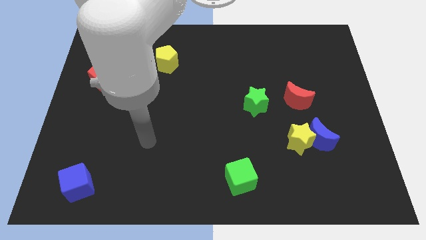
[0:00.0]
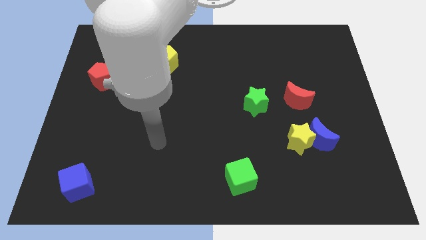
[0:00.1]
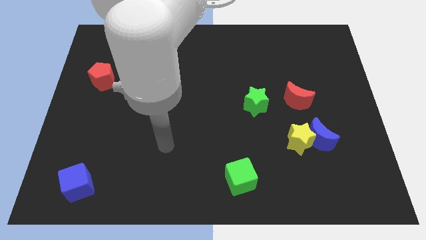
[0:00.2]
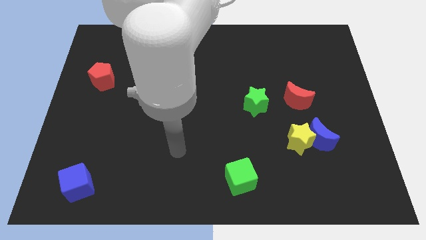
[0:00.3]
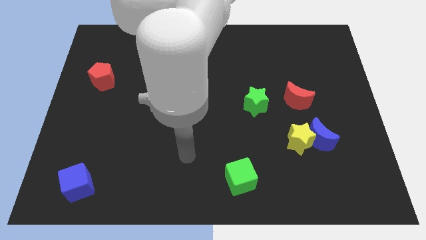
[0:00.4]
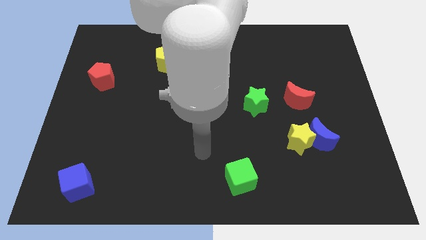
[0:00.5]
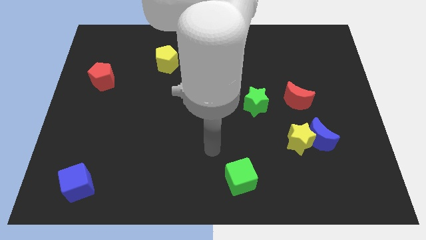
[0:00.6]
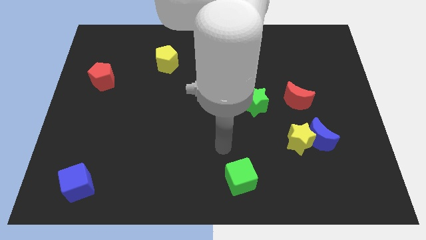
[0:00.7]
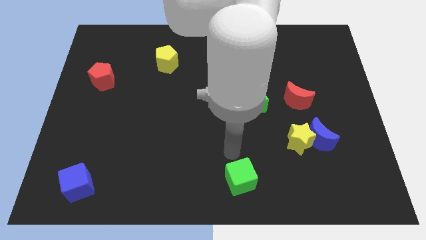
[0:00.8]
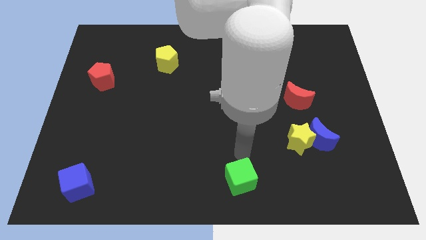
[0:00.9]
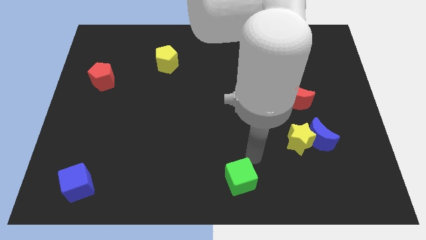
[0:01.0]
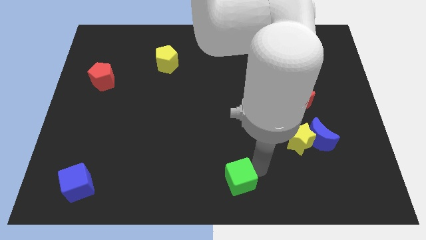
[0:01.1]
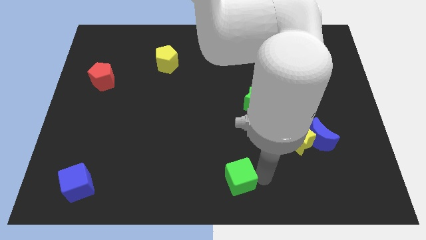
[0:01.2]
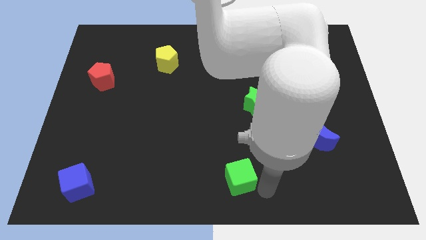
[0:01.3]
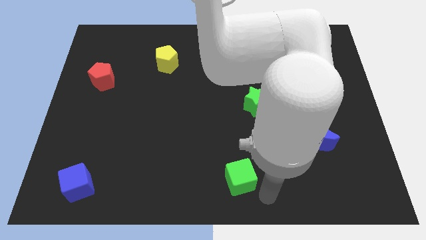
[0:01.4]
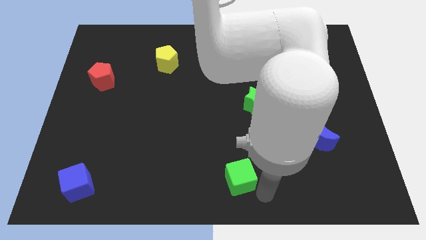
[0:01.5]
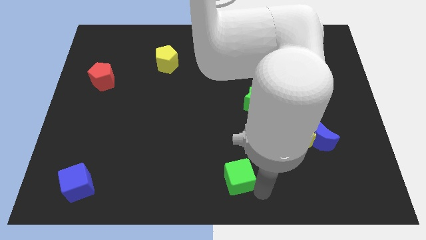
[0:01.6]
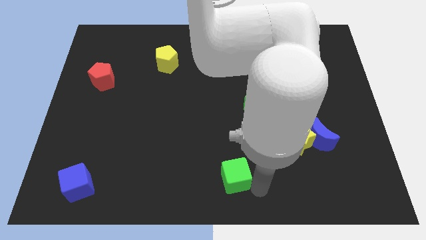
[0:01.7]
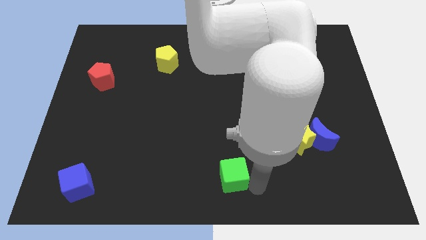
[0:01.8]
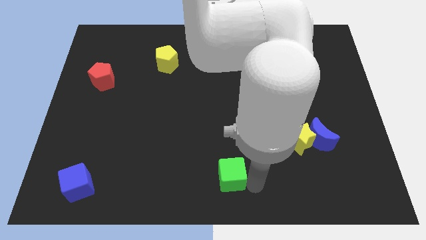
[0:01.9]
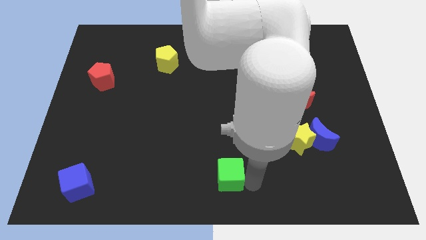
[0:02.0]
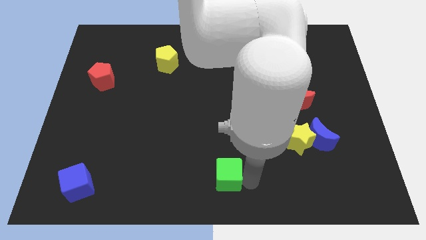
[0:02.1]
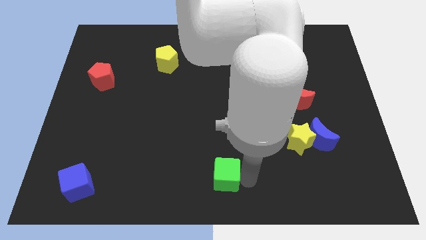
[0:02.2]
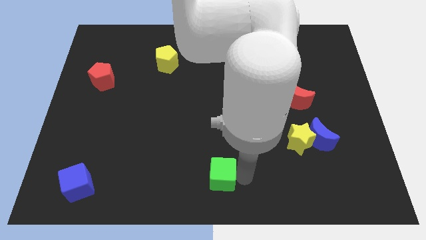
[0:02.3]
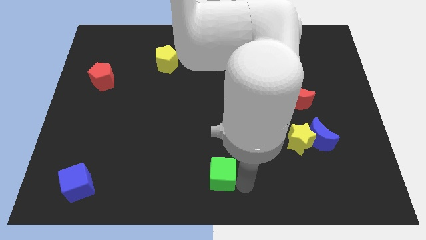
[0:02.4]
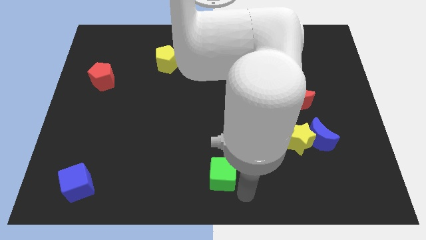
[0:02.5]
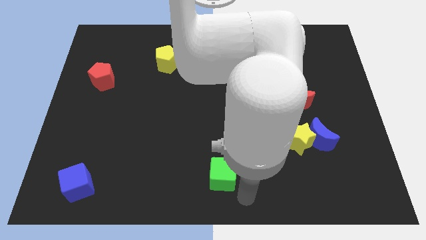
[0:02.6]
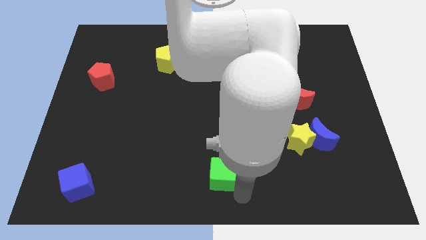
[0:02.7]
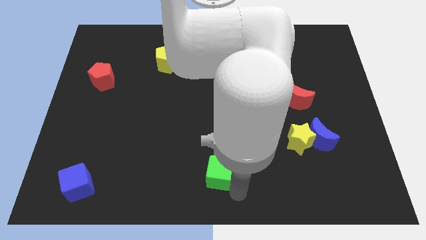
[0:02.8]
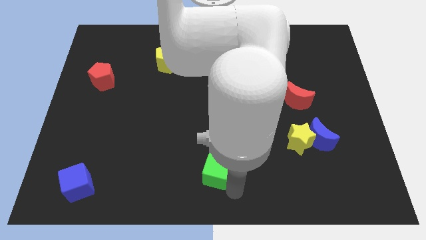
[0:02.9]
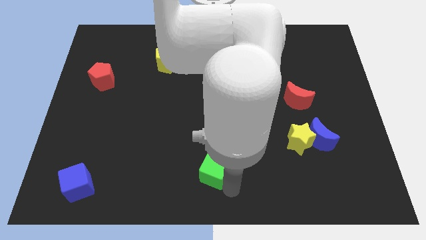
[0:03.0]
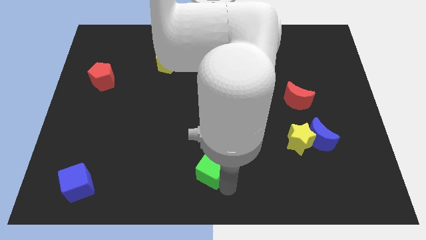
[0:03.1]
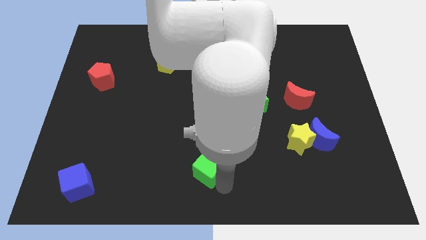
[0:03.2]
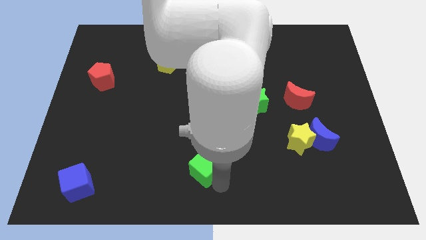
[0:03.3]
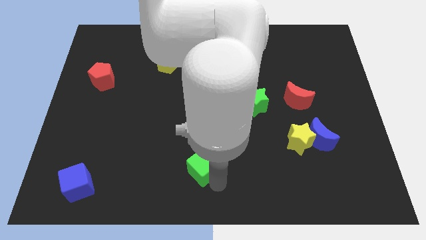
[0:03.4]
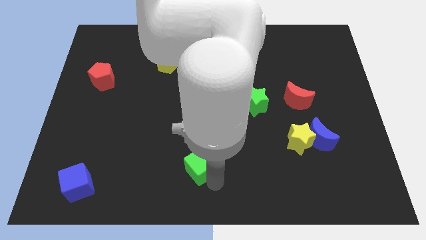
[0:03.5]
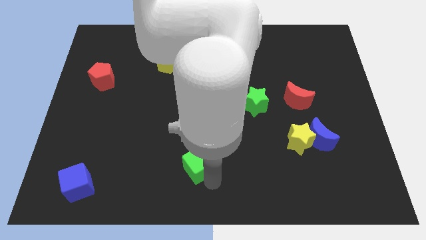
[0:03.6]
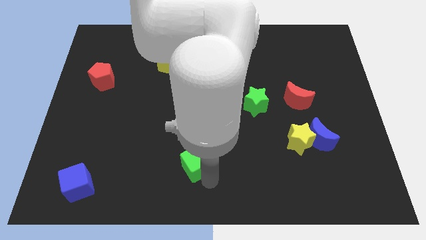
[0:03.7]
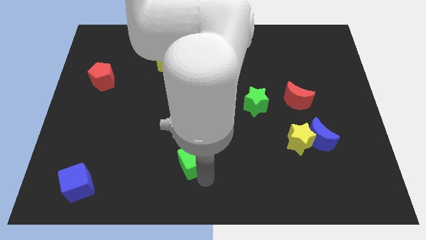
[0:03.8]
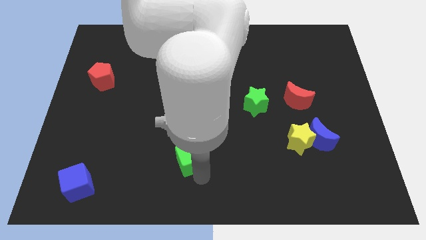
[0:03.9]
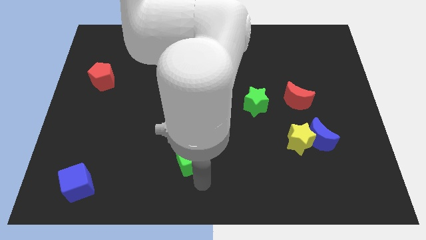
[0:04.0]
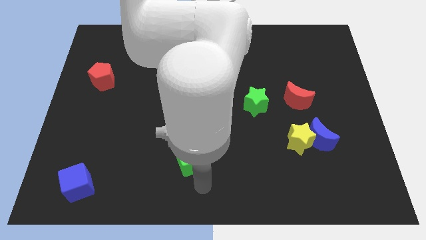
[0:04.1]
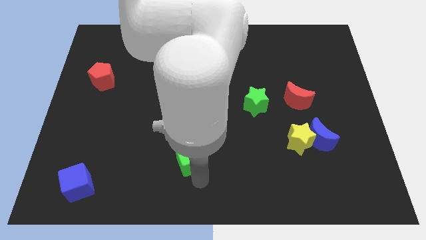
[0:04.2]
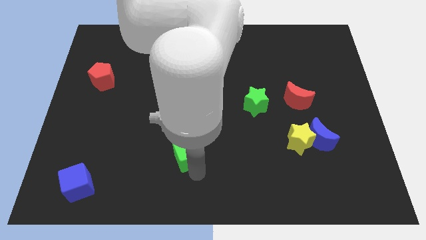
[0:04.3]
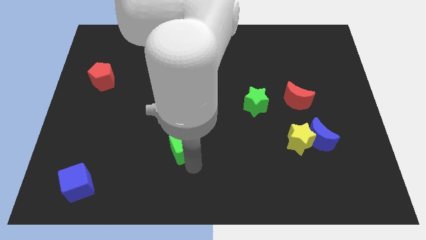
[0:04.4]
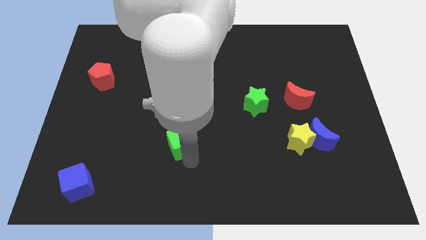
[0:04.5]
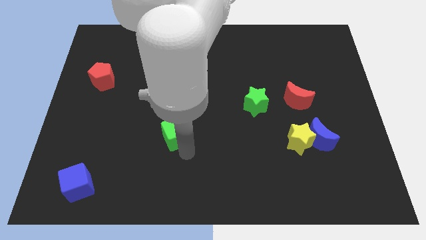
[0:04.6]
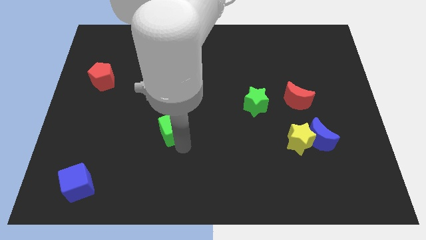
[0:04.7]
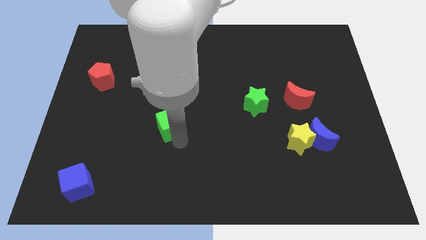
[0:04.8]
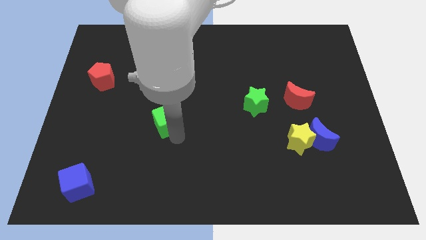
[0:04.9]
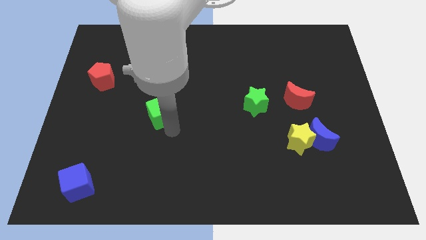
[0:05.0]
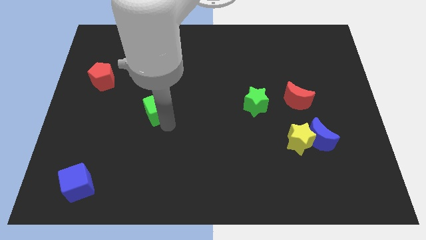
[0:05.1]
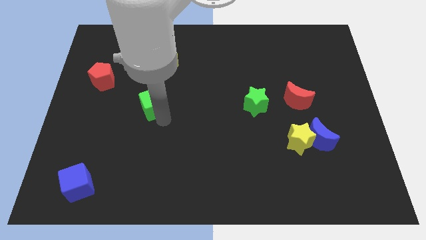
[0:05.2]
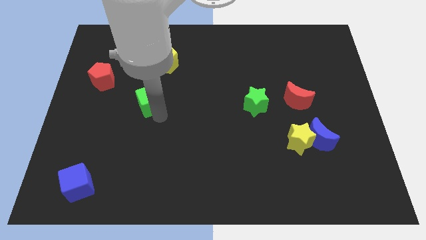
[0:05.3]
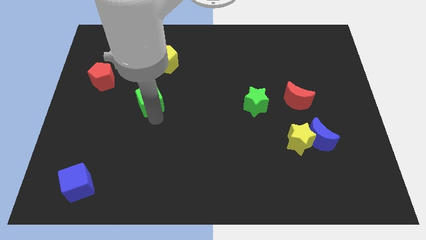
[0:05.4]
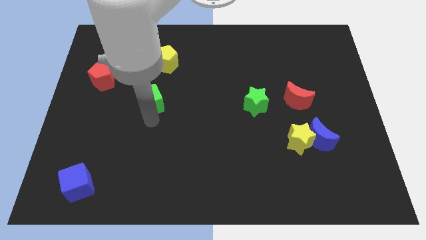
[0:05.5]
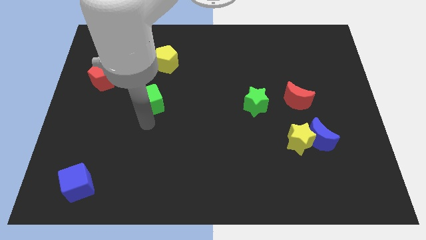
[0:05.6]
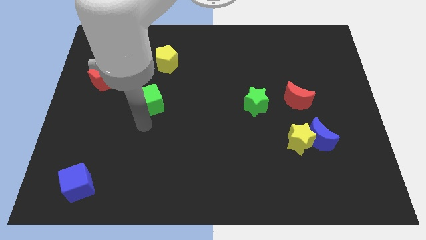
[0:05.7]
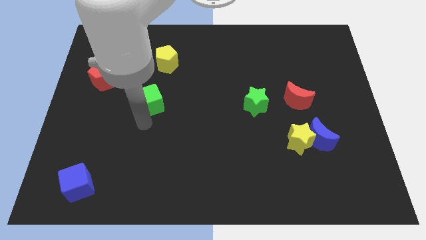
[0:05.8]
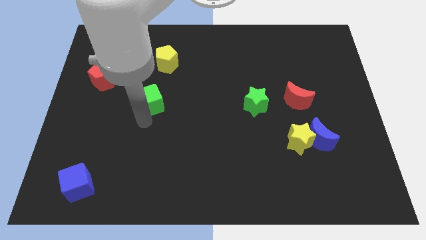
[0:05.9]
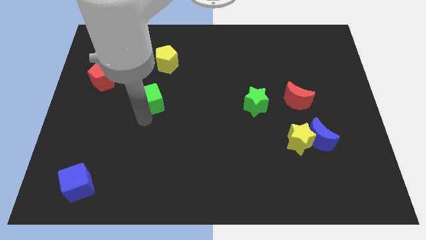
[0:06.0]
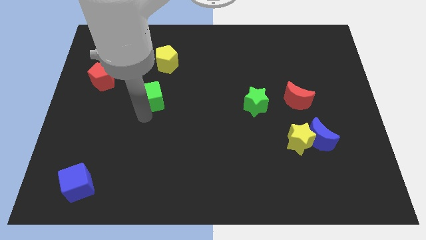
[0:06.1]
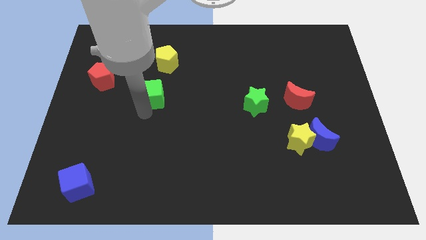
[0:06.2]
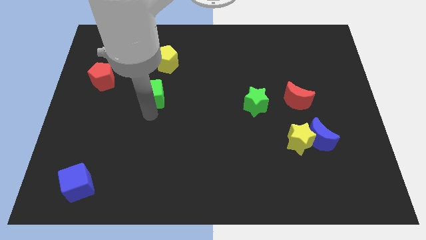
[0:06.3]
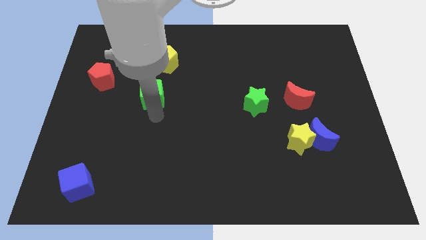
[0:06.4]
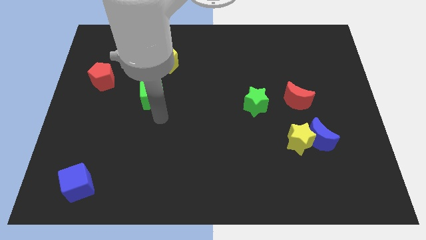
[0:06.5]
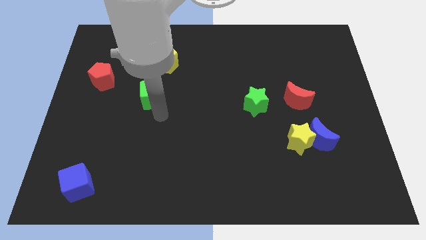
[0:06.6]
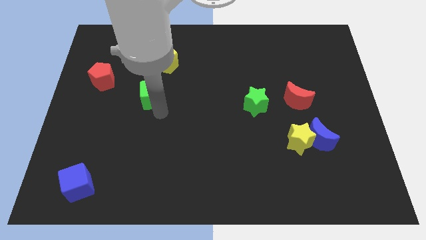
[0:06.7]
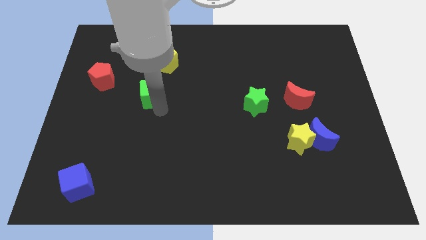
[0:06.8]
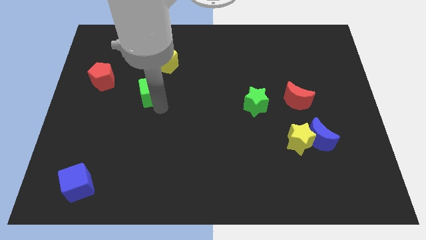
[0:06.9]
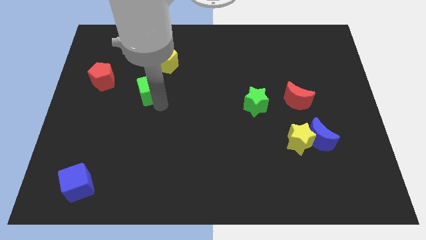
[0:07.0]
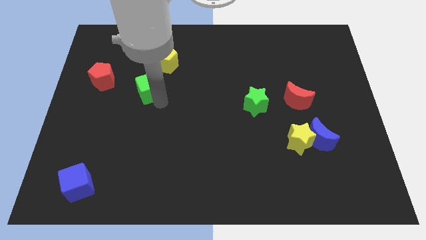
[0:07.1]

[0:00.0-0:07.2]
move the green cube to the bottom left side of the yellow pentagon
